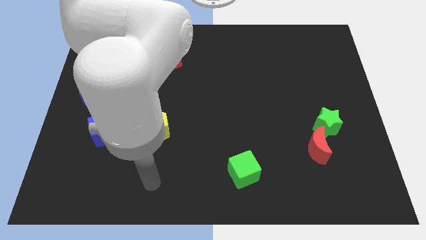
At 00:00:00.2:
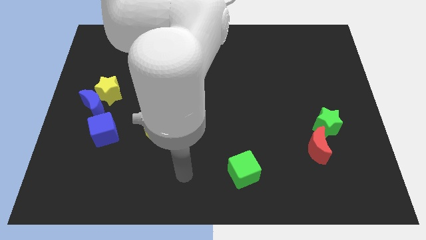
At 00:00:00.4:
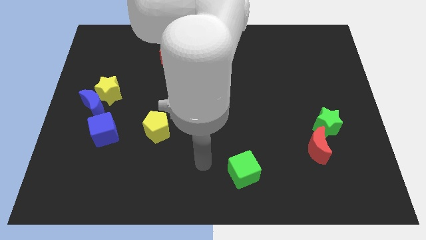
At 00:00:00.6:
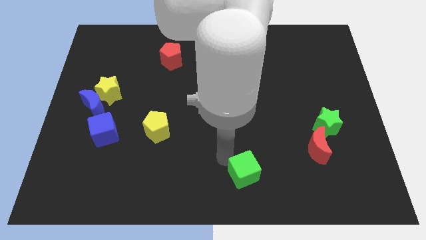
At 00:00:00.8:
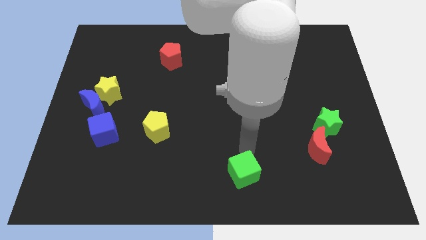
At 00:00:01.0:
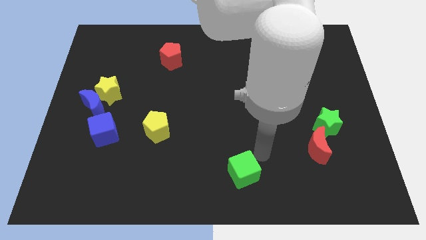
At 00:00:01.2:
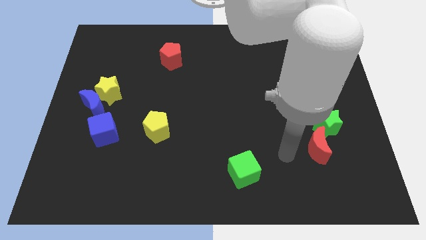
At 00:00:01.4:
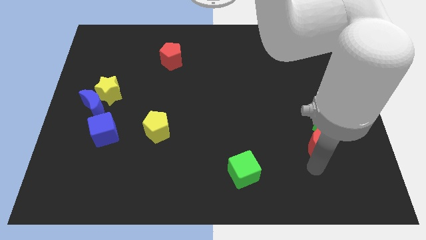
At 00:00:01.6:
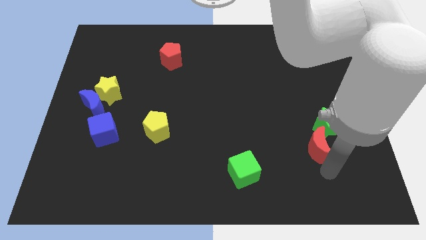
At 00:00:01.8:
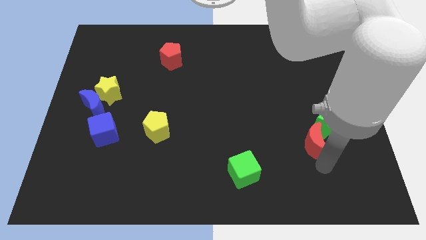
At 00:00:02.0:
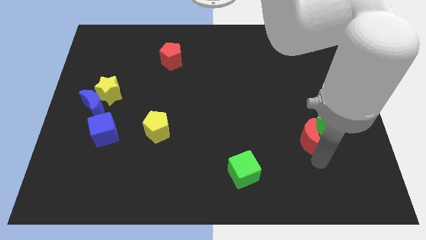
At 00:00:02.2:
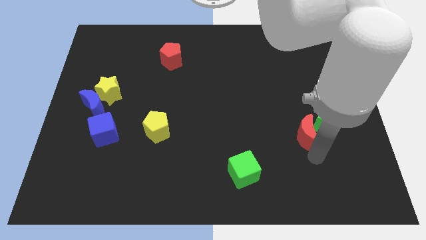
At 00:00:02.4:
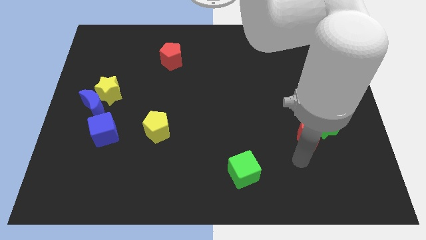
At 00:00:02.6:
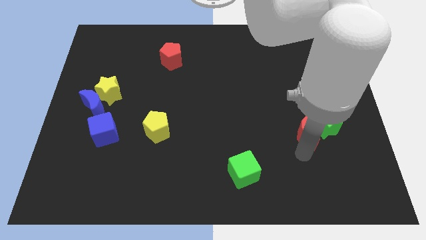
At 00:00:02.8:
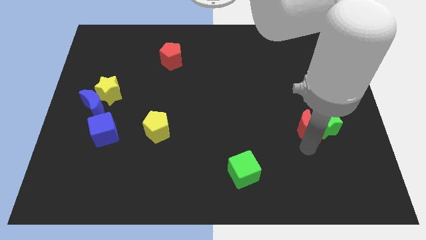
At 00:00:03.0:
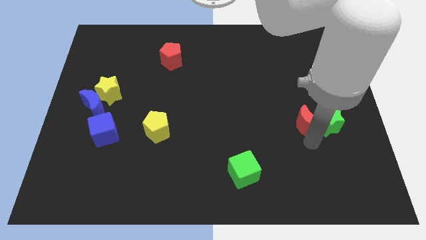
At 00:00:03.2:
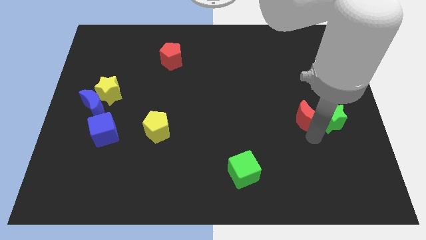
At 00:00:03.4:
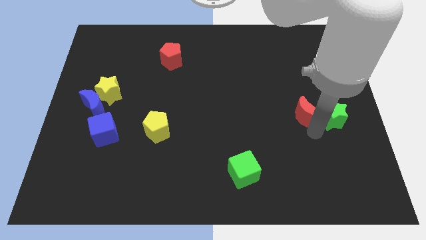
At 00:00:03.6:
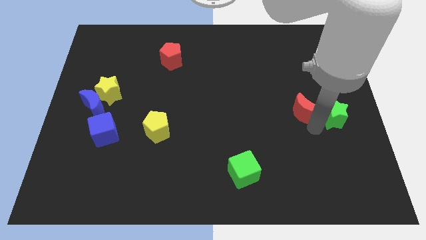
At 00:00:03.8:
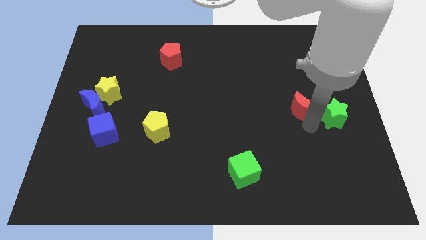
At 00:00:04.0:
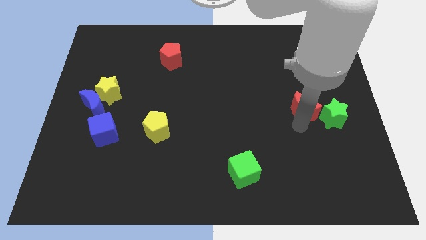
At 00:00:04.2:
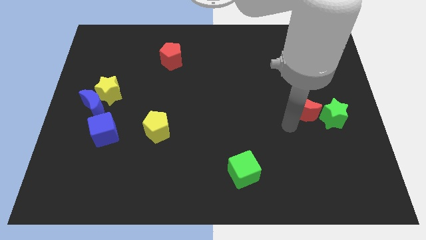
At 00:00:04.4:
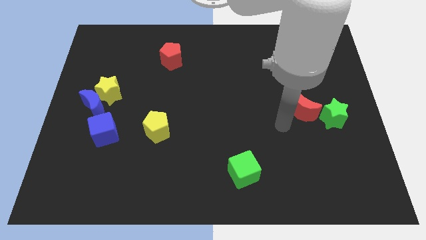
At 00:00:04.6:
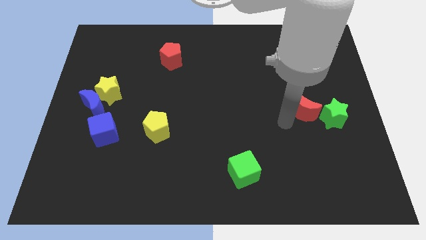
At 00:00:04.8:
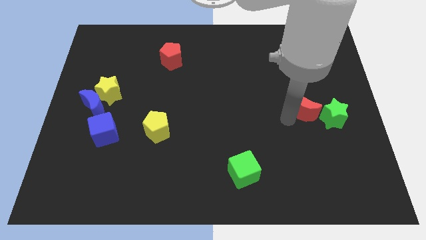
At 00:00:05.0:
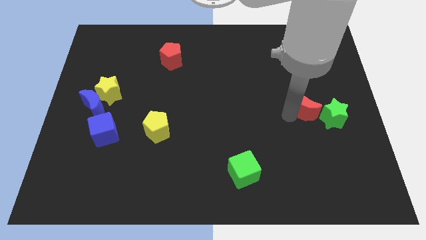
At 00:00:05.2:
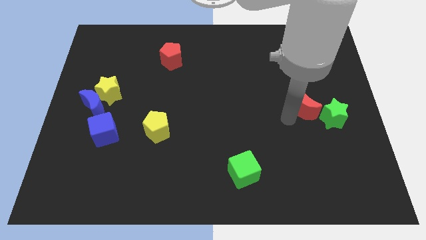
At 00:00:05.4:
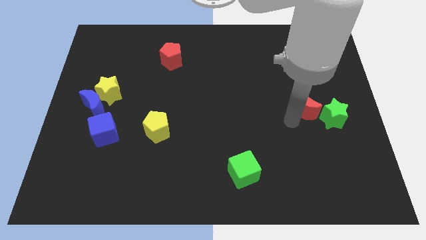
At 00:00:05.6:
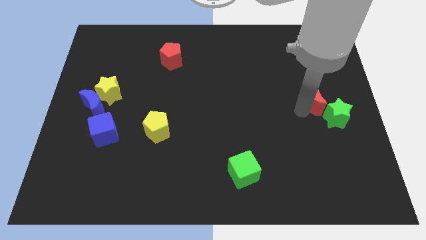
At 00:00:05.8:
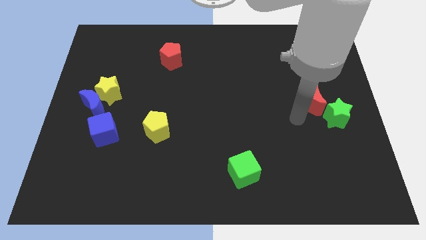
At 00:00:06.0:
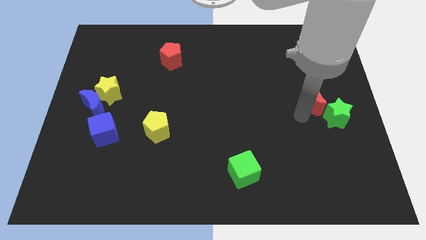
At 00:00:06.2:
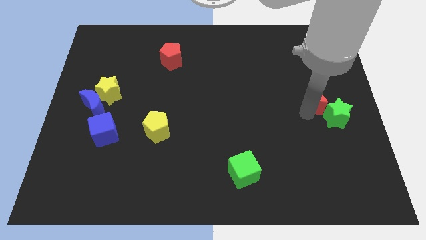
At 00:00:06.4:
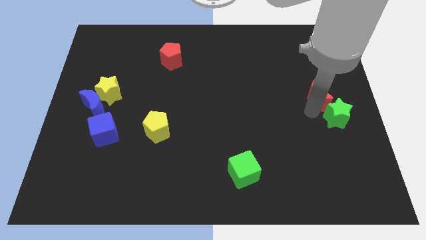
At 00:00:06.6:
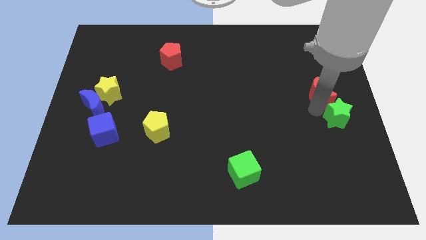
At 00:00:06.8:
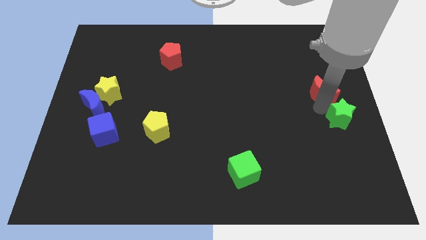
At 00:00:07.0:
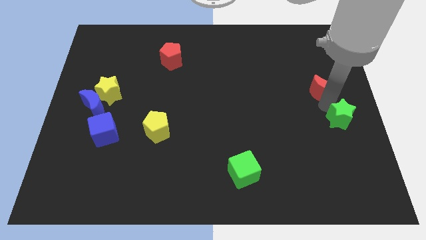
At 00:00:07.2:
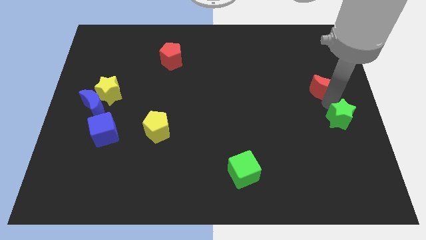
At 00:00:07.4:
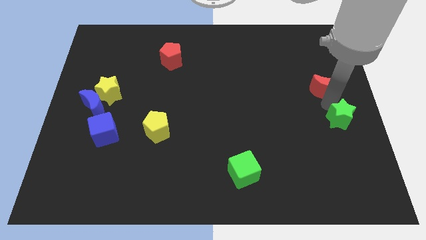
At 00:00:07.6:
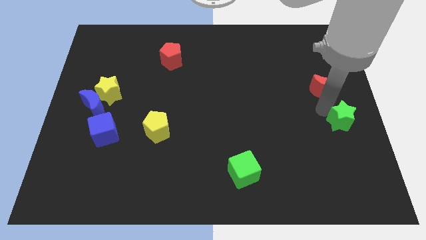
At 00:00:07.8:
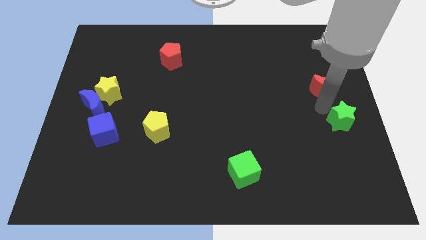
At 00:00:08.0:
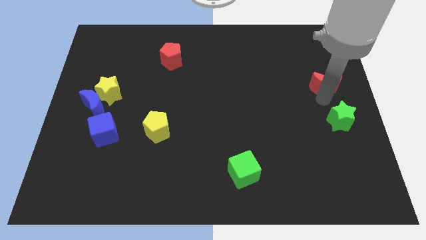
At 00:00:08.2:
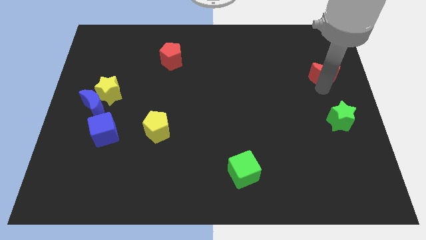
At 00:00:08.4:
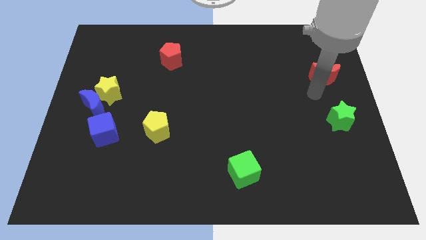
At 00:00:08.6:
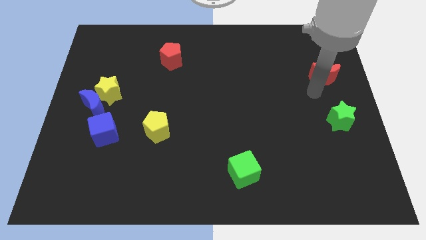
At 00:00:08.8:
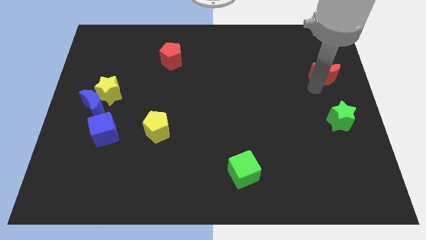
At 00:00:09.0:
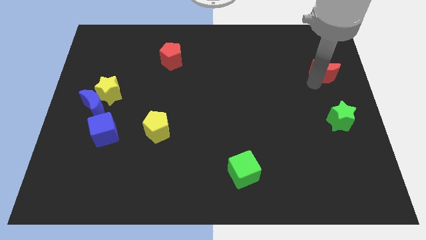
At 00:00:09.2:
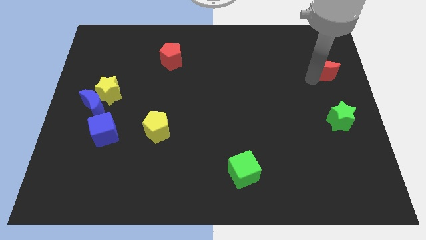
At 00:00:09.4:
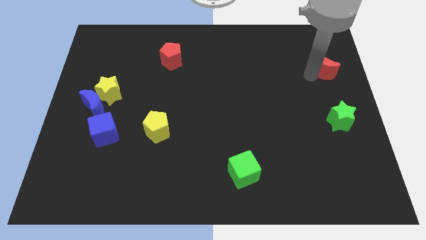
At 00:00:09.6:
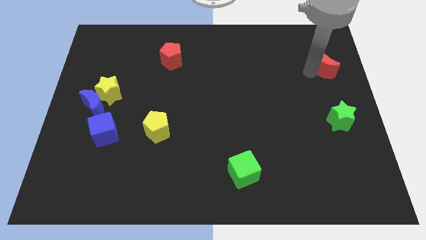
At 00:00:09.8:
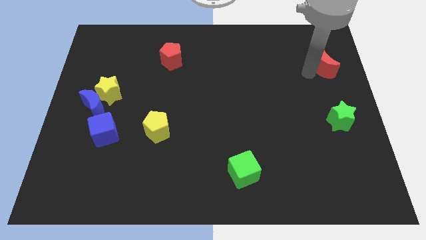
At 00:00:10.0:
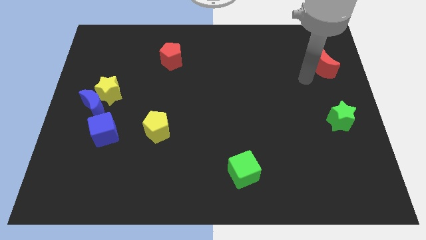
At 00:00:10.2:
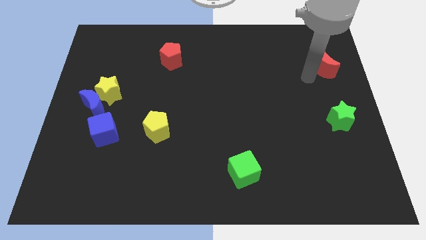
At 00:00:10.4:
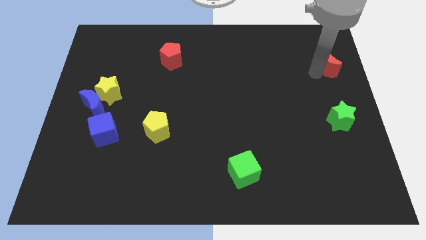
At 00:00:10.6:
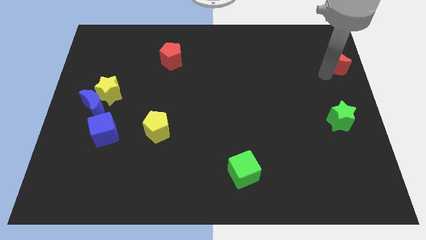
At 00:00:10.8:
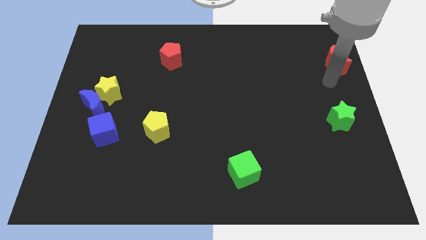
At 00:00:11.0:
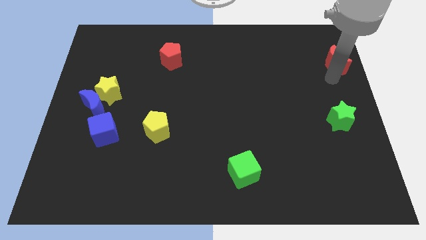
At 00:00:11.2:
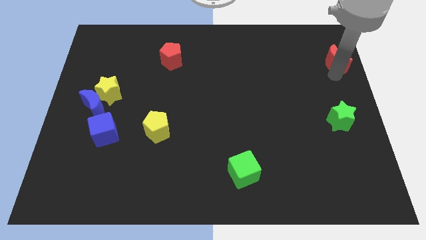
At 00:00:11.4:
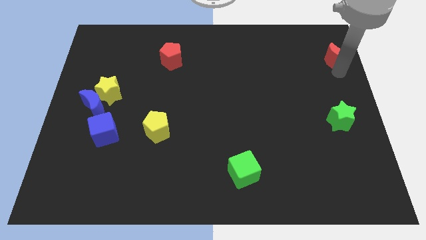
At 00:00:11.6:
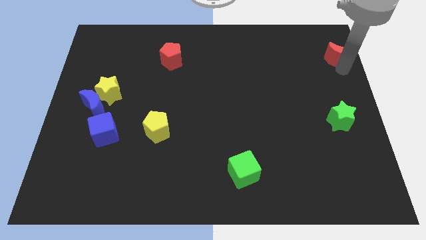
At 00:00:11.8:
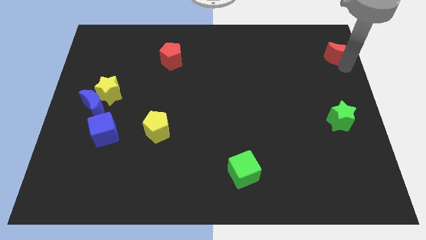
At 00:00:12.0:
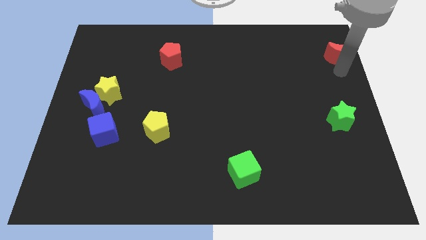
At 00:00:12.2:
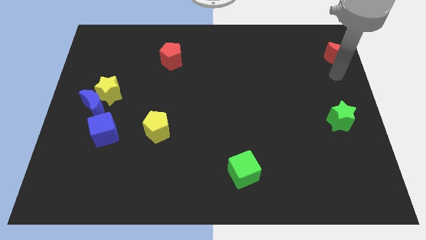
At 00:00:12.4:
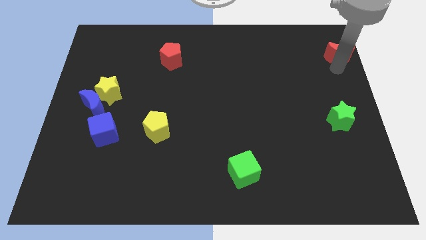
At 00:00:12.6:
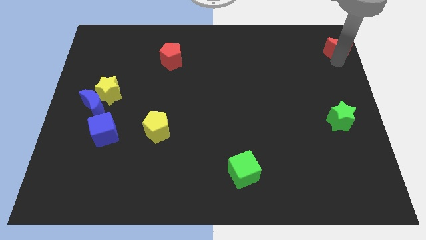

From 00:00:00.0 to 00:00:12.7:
slide the red moon to the top right of the board
